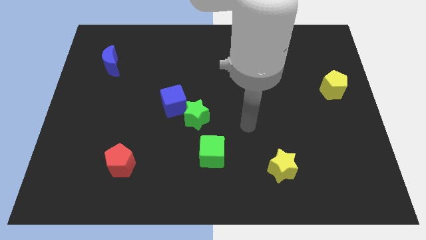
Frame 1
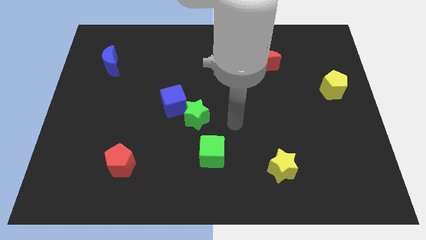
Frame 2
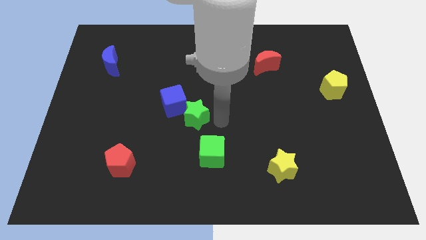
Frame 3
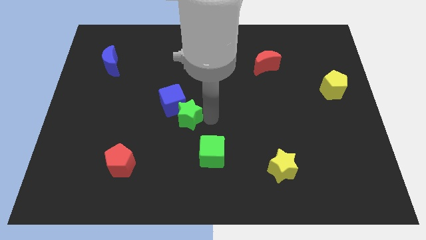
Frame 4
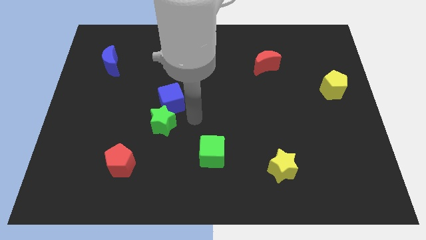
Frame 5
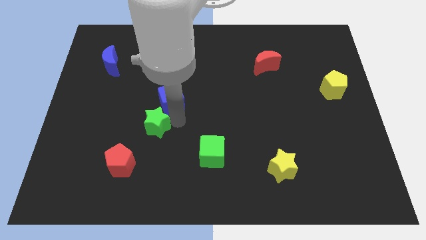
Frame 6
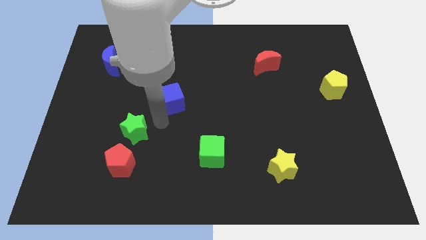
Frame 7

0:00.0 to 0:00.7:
move the blue cube away from the green star

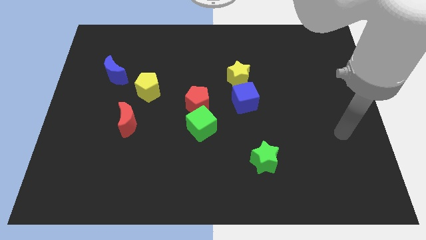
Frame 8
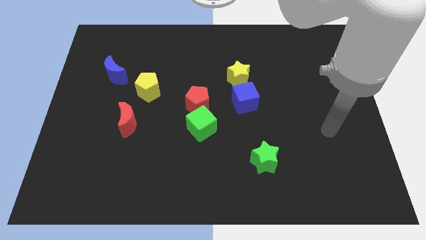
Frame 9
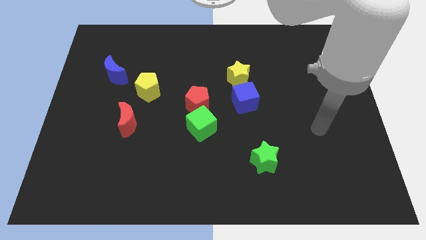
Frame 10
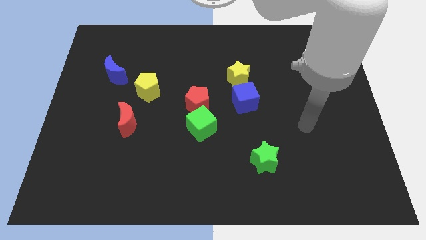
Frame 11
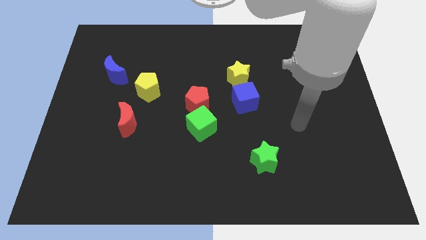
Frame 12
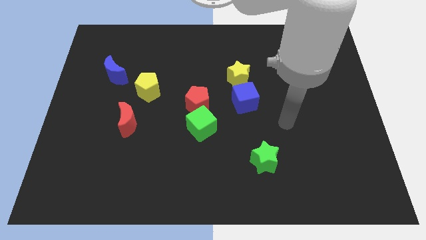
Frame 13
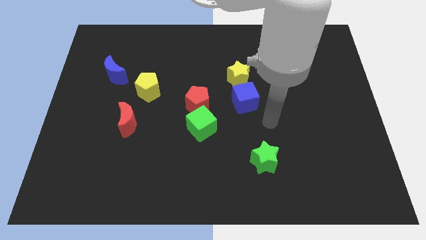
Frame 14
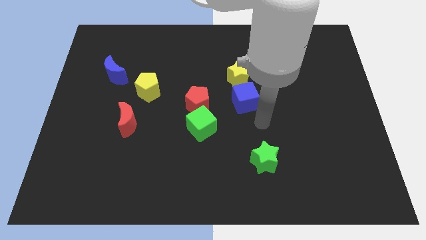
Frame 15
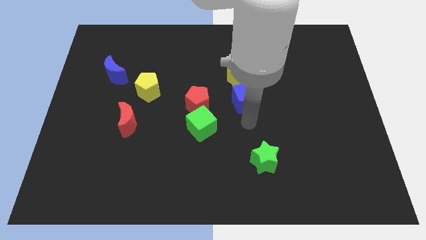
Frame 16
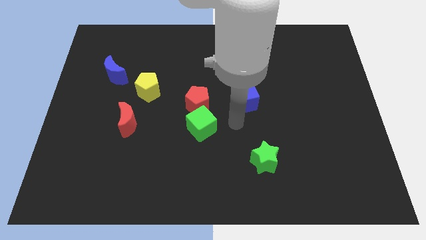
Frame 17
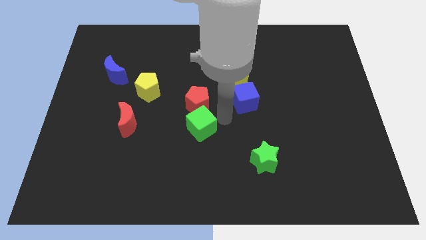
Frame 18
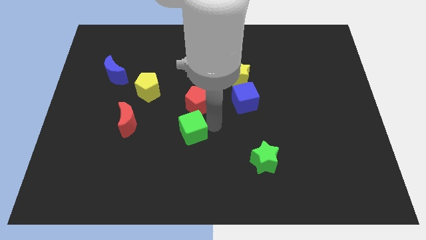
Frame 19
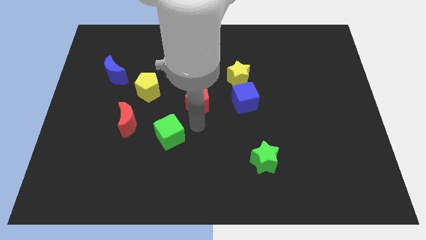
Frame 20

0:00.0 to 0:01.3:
separate the red pentagon from the green cube

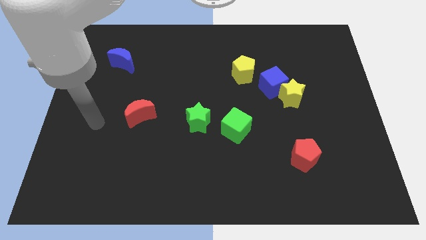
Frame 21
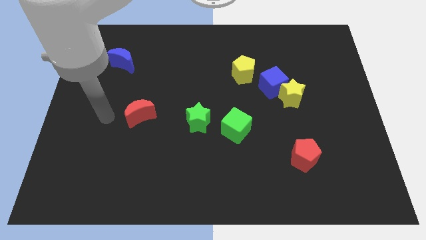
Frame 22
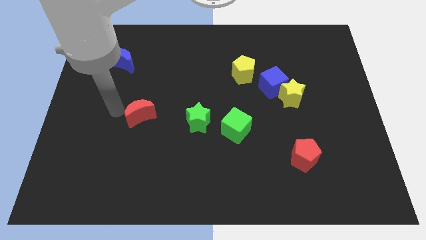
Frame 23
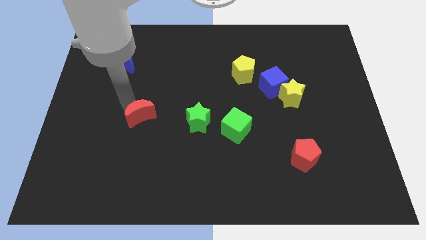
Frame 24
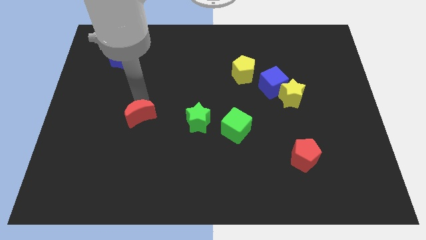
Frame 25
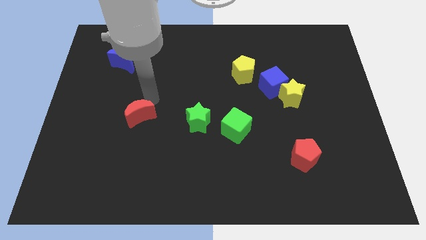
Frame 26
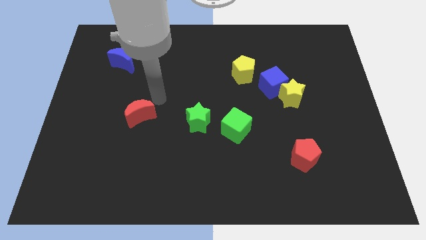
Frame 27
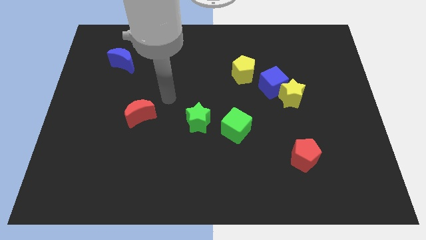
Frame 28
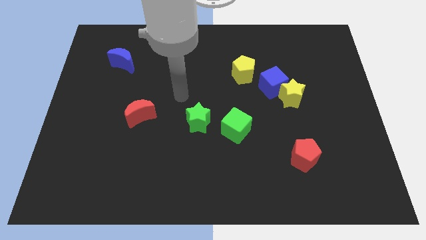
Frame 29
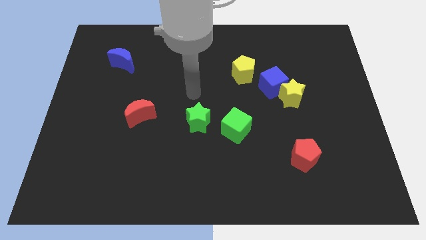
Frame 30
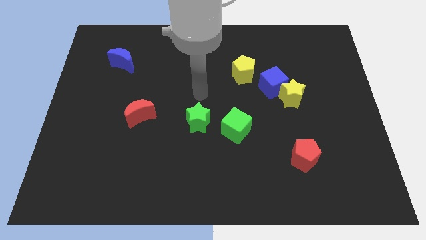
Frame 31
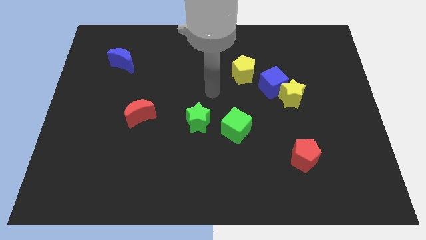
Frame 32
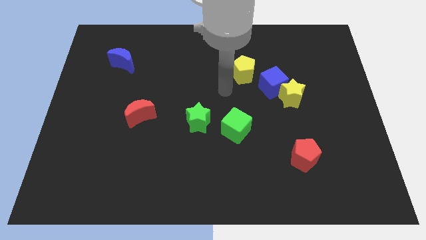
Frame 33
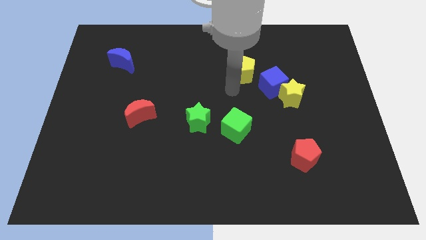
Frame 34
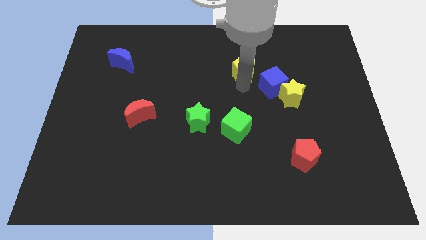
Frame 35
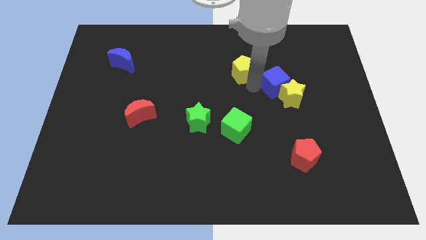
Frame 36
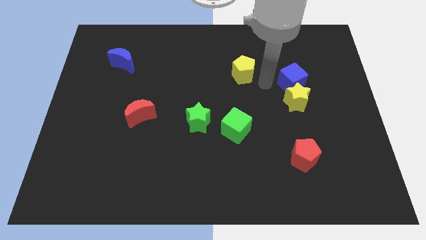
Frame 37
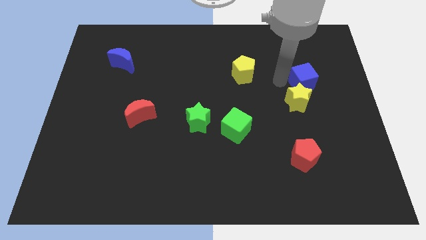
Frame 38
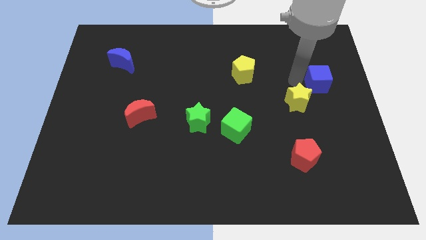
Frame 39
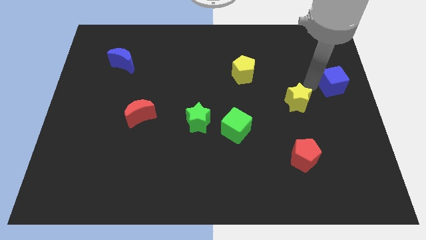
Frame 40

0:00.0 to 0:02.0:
separate the yellow star from the blue cube

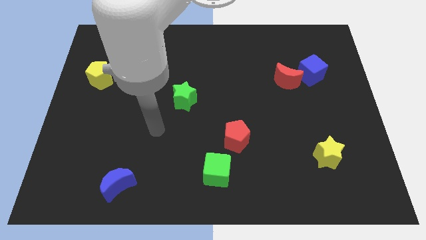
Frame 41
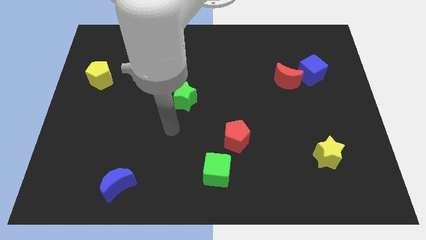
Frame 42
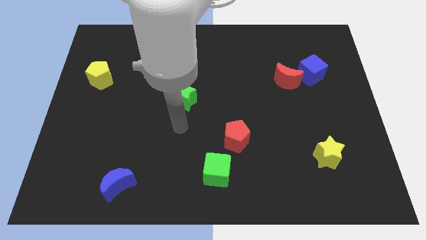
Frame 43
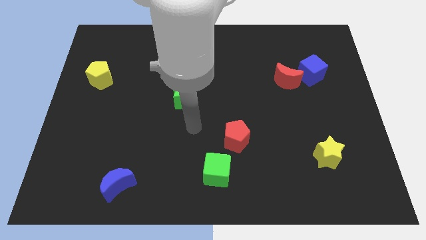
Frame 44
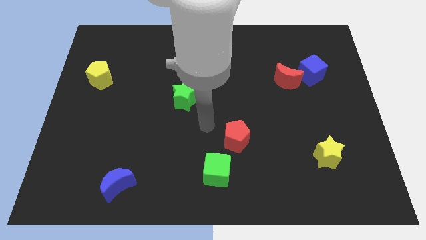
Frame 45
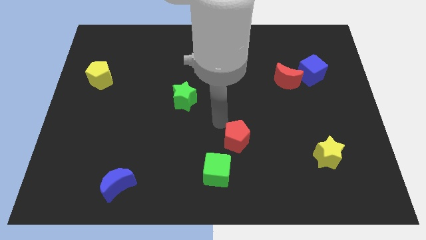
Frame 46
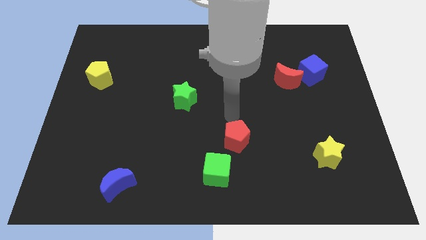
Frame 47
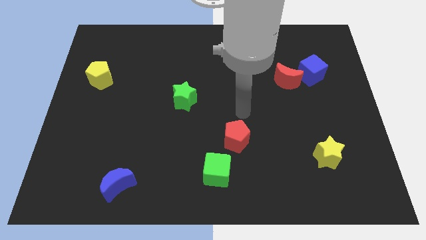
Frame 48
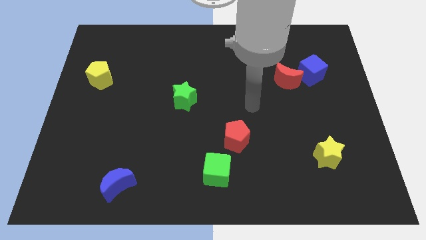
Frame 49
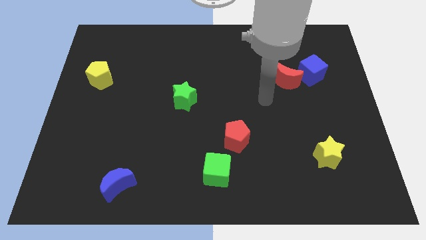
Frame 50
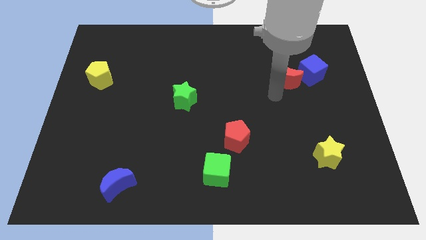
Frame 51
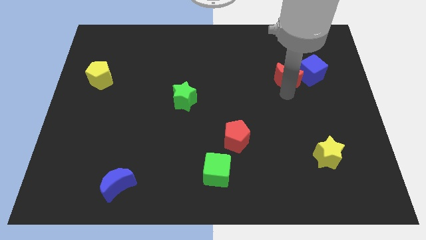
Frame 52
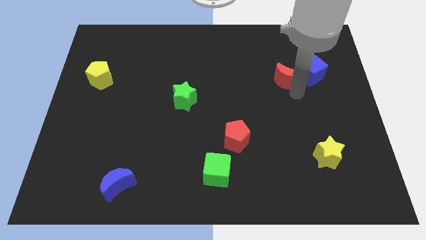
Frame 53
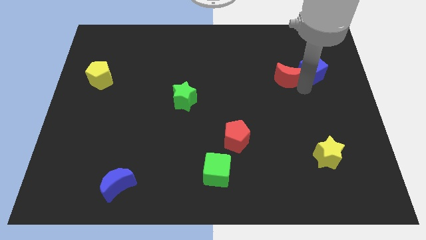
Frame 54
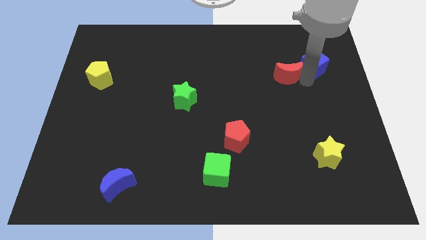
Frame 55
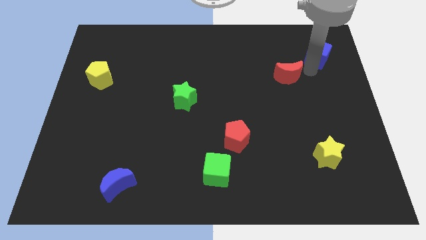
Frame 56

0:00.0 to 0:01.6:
move the red moon away from the blue cube

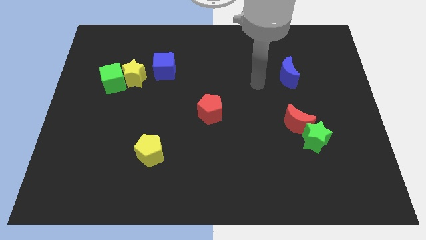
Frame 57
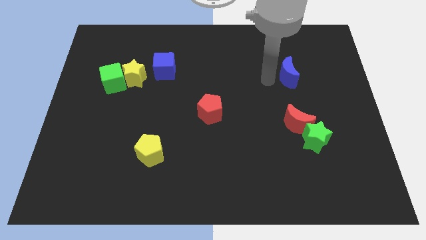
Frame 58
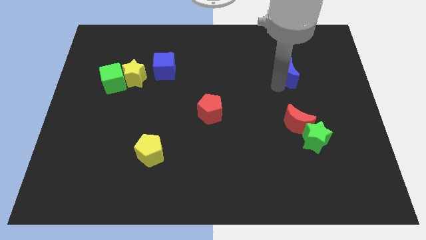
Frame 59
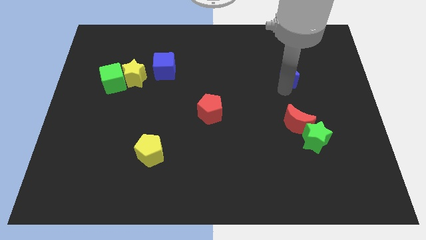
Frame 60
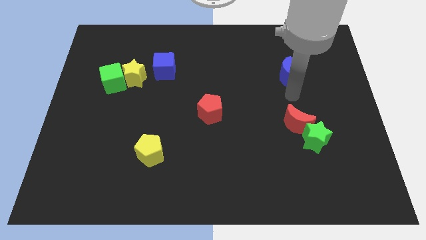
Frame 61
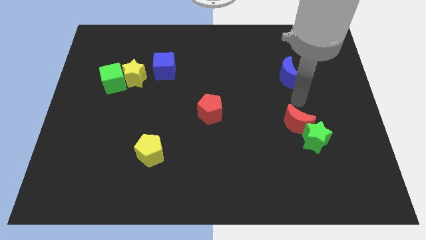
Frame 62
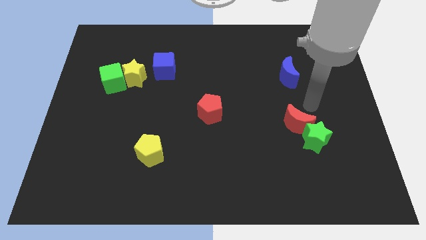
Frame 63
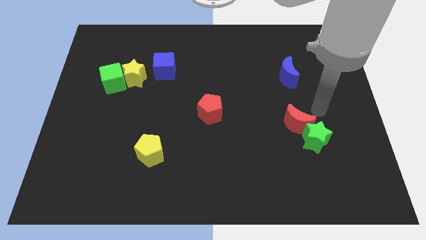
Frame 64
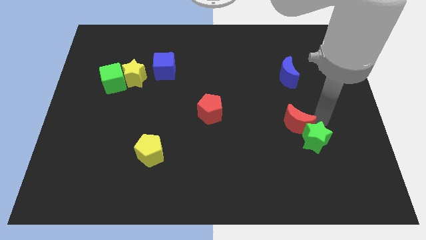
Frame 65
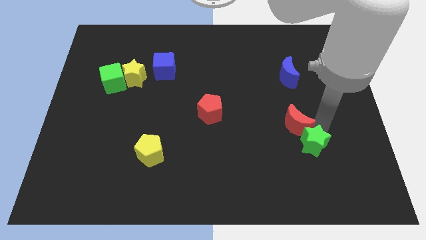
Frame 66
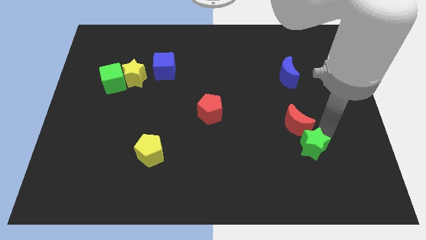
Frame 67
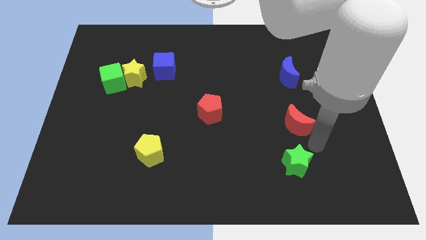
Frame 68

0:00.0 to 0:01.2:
separate the red moon from the green star

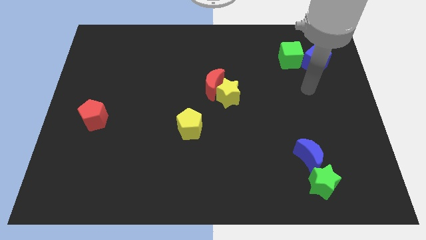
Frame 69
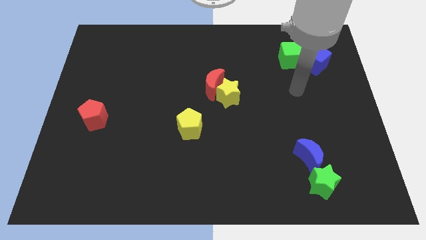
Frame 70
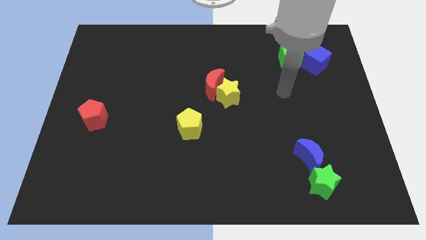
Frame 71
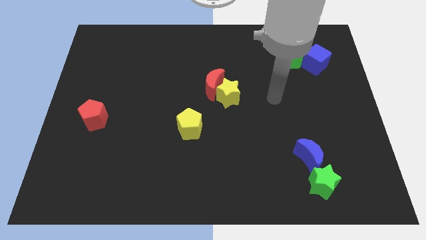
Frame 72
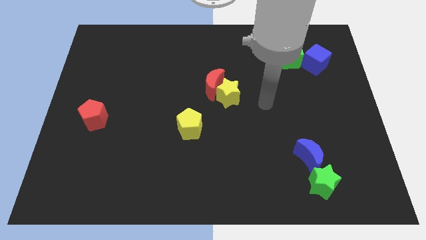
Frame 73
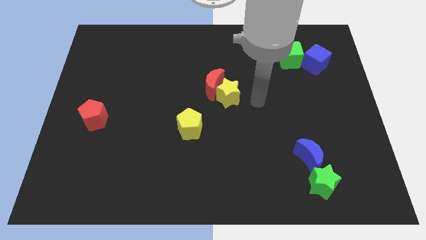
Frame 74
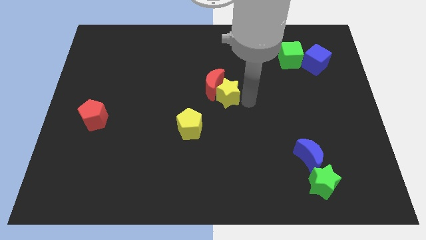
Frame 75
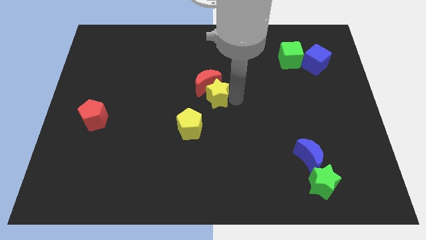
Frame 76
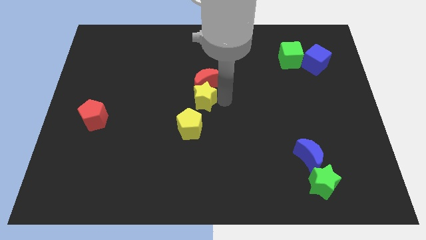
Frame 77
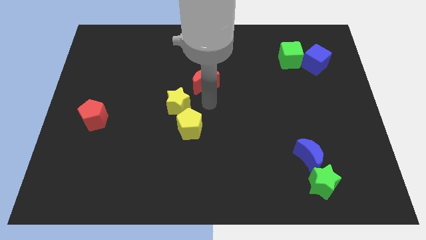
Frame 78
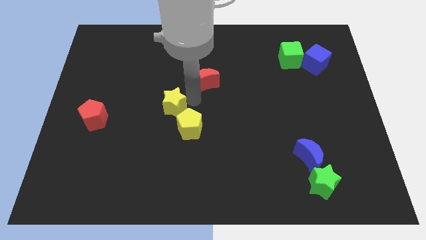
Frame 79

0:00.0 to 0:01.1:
pull the red moon apart from the yellow star

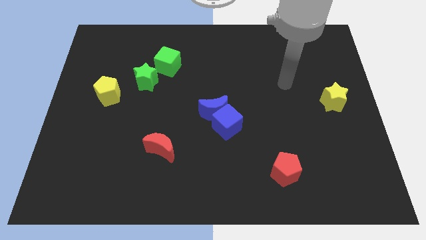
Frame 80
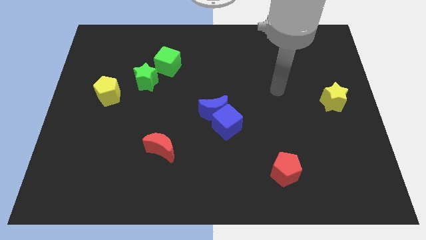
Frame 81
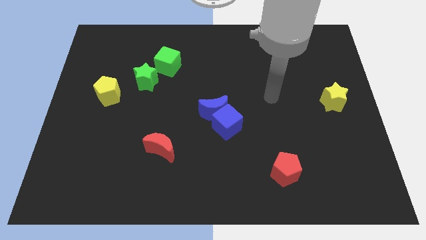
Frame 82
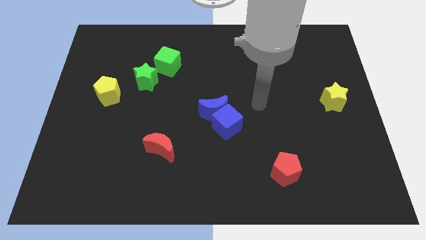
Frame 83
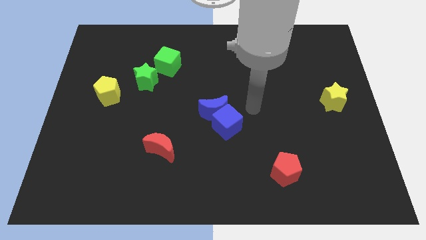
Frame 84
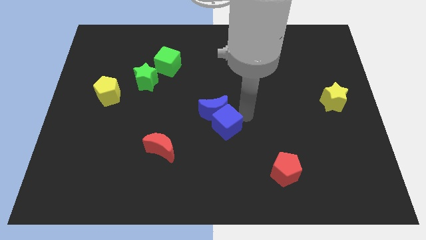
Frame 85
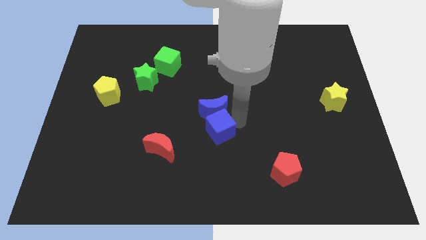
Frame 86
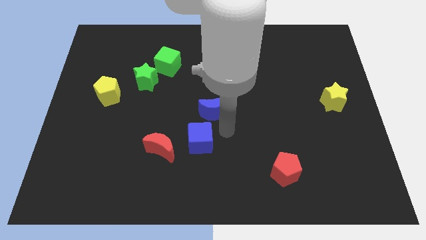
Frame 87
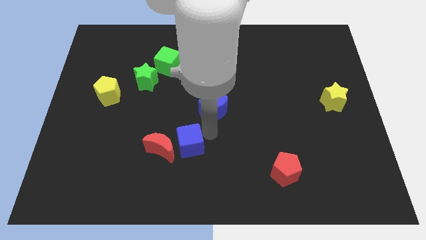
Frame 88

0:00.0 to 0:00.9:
separate the blue moon from the blue cube

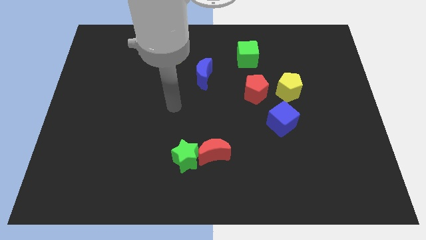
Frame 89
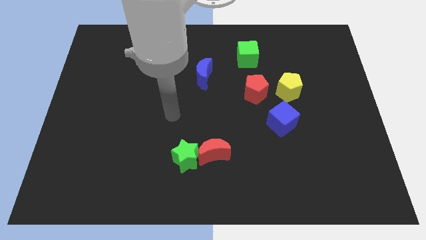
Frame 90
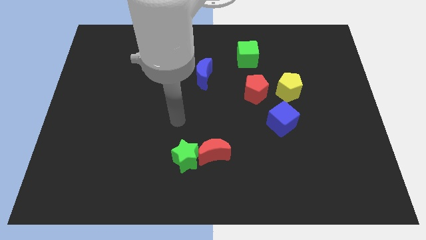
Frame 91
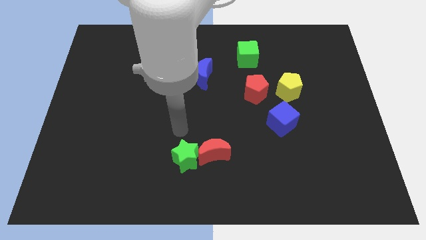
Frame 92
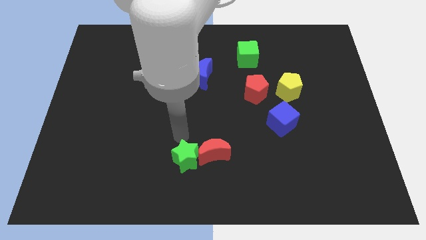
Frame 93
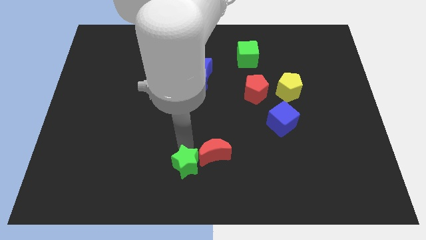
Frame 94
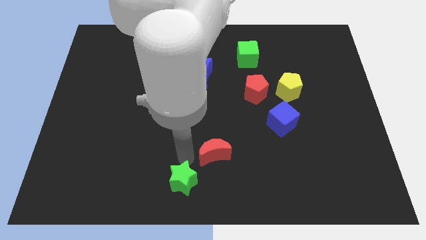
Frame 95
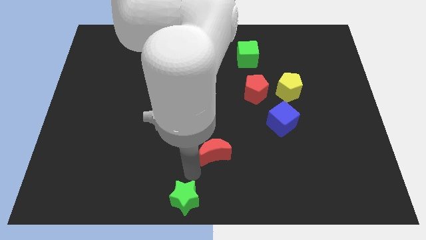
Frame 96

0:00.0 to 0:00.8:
move the red moon away from the green star
